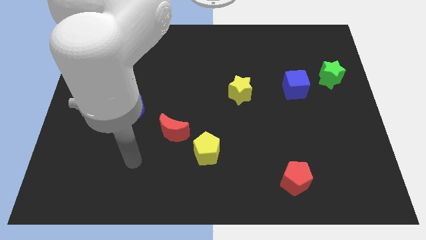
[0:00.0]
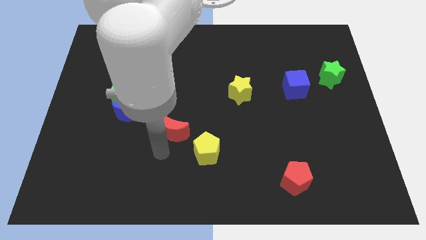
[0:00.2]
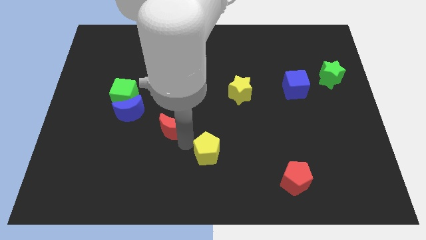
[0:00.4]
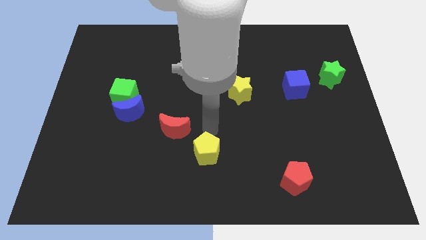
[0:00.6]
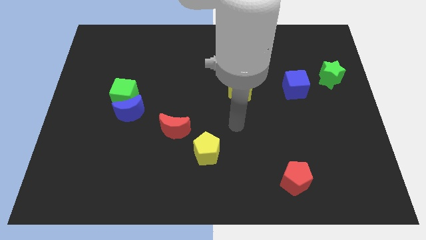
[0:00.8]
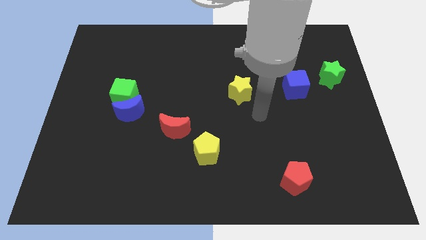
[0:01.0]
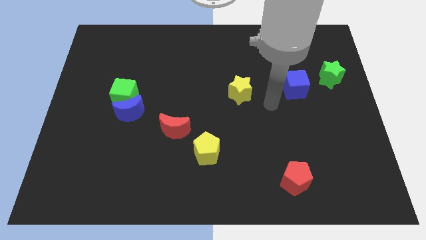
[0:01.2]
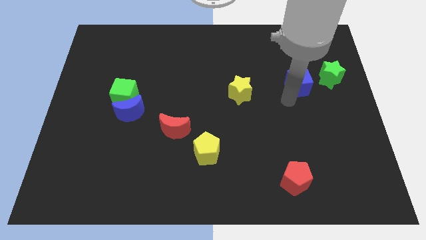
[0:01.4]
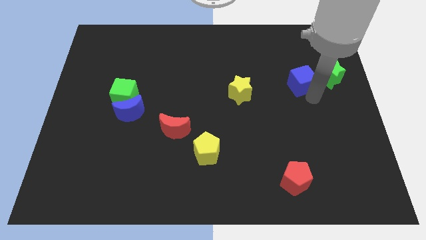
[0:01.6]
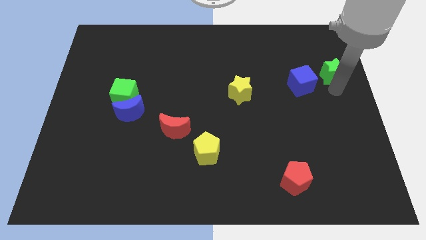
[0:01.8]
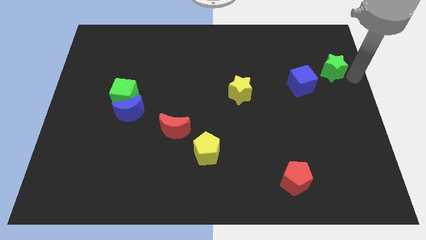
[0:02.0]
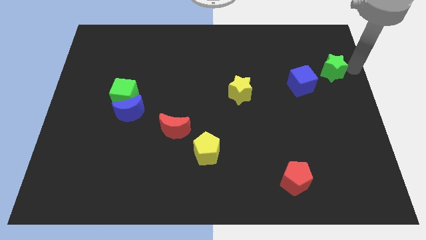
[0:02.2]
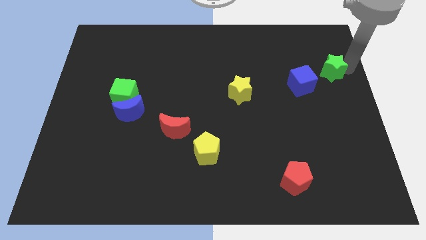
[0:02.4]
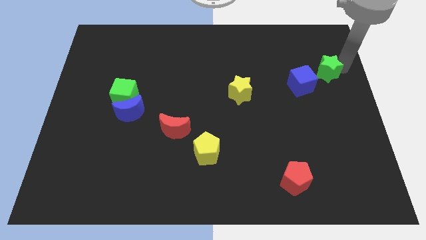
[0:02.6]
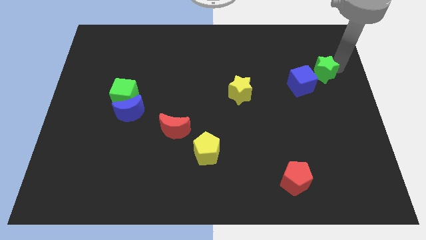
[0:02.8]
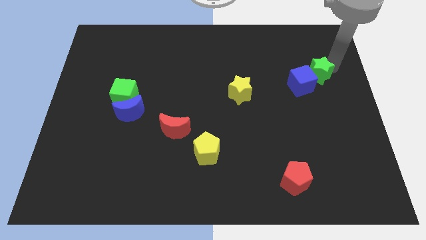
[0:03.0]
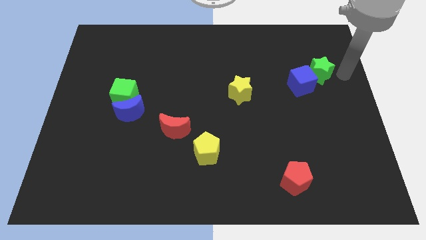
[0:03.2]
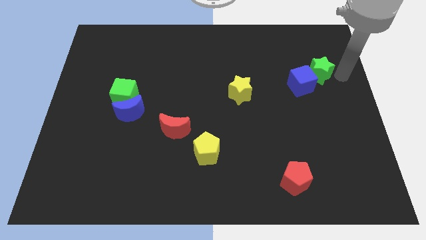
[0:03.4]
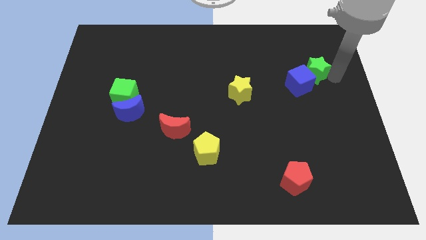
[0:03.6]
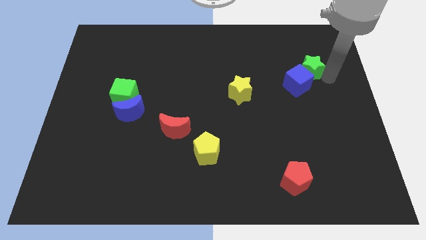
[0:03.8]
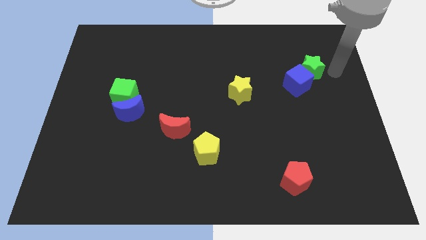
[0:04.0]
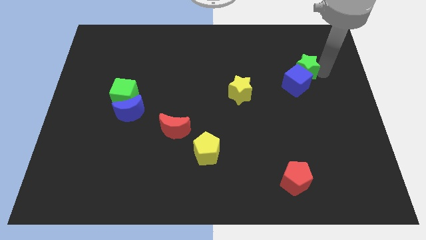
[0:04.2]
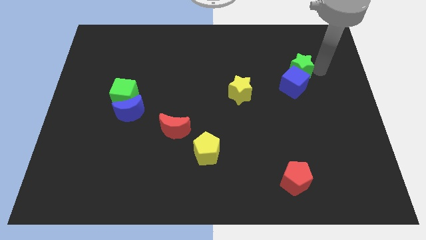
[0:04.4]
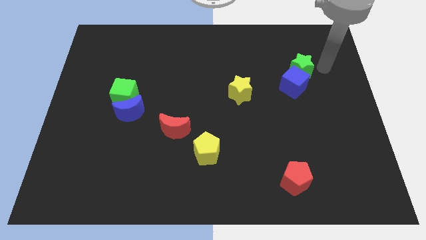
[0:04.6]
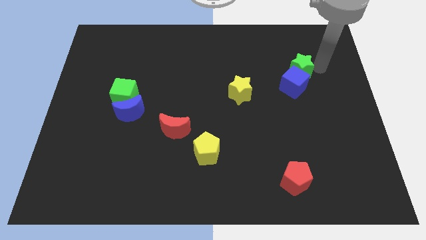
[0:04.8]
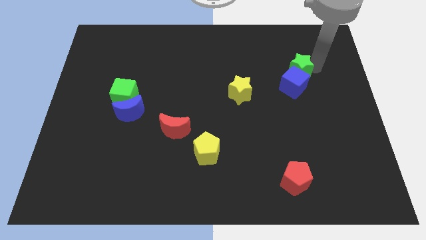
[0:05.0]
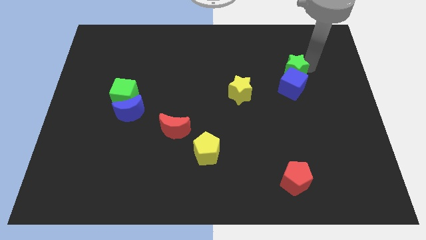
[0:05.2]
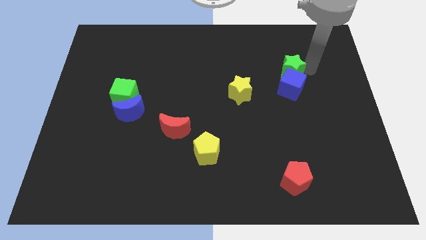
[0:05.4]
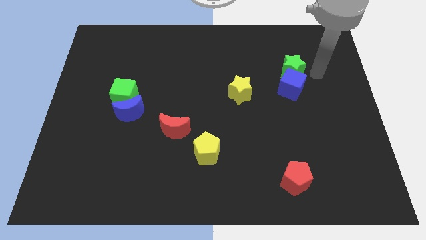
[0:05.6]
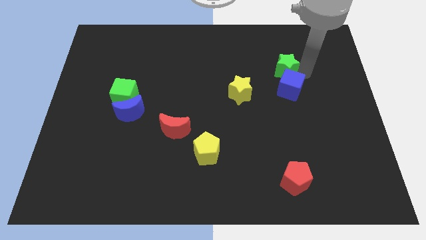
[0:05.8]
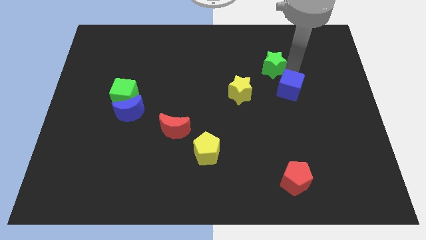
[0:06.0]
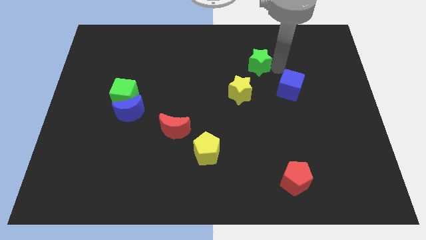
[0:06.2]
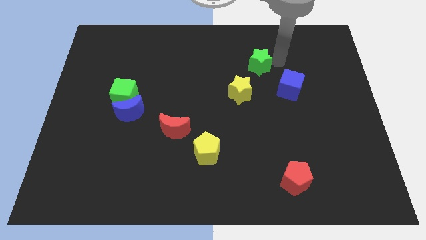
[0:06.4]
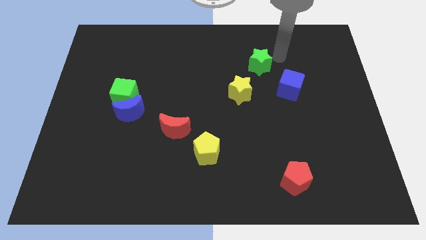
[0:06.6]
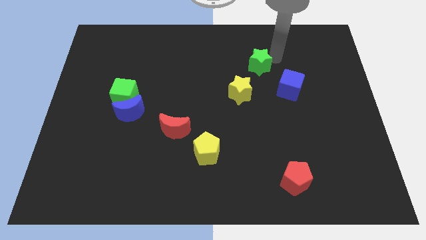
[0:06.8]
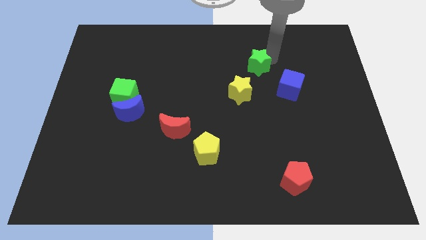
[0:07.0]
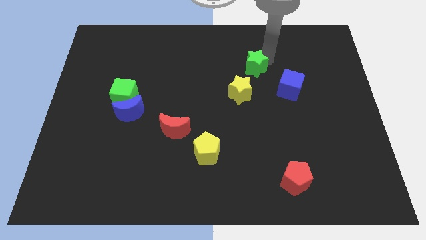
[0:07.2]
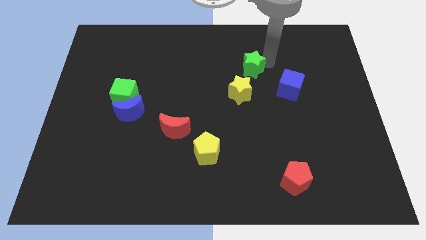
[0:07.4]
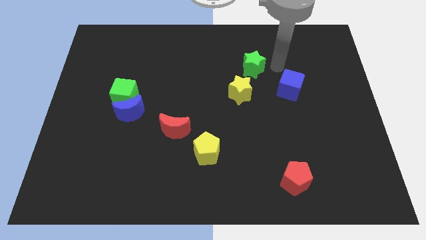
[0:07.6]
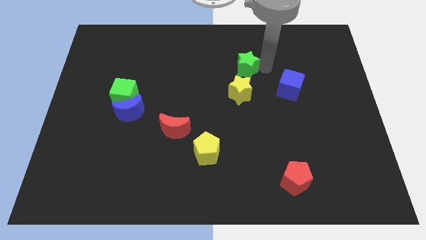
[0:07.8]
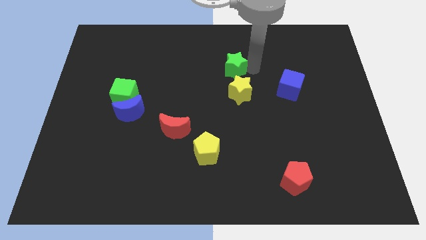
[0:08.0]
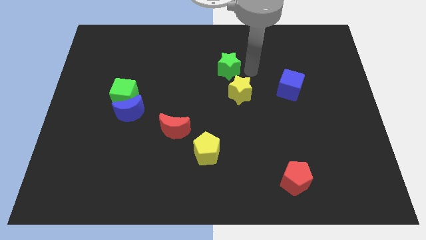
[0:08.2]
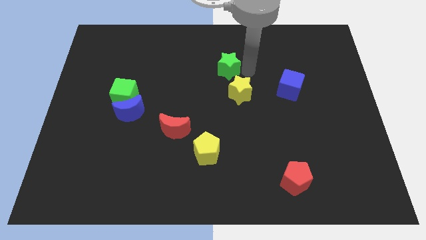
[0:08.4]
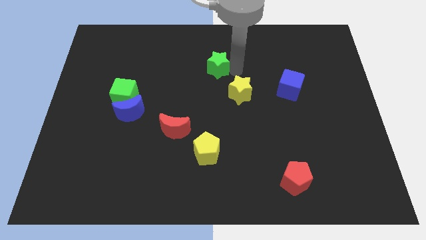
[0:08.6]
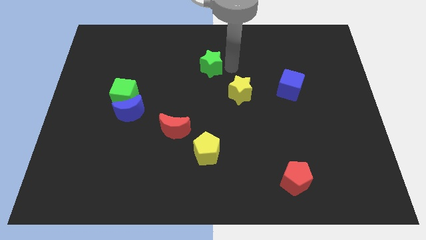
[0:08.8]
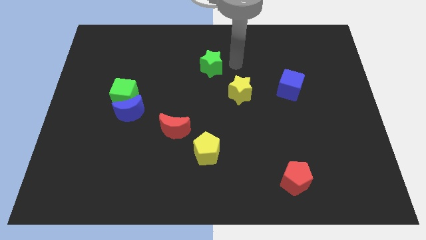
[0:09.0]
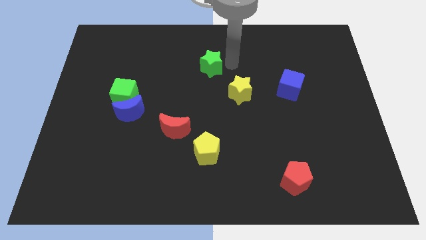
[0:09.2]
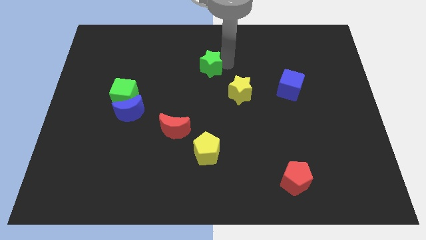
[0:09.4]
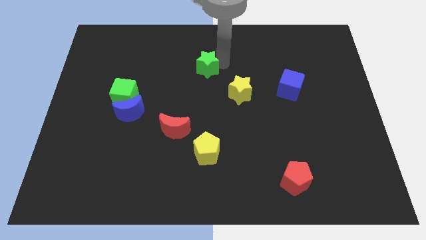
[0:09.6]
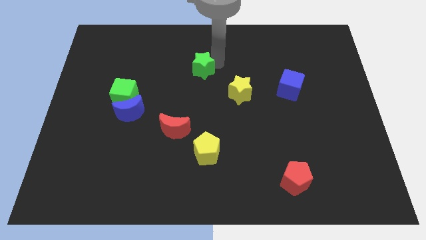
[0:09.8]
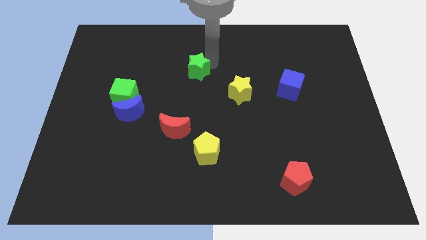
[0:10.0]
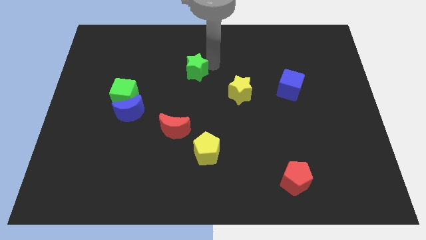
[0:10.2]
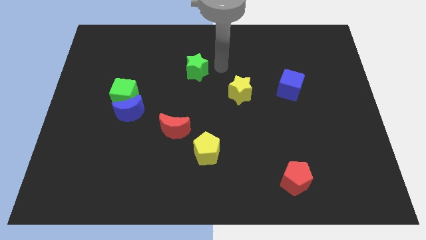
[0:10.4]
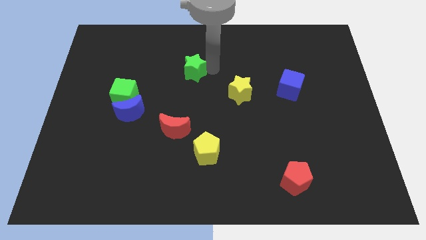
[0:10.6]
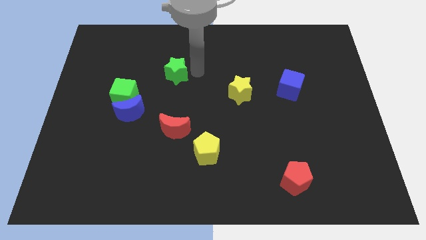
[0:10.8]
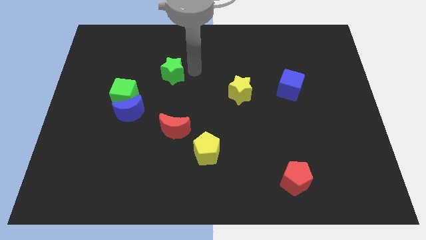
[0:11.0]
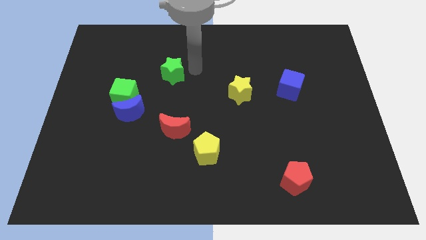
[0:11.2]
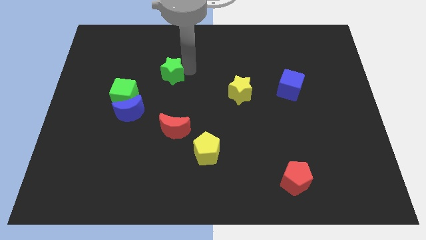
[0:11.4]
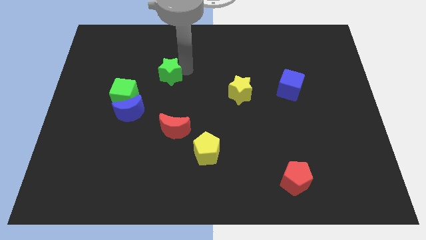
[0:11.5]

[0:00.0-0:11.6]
push the green star to the top right of the green cube

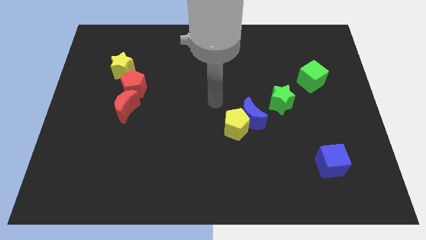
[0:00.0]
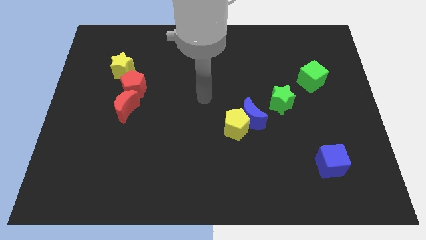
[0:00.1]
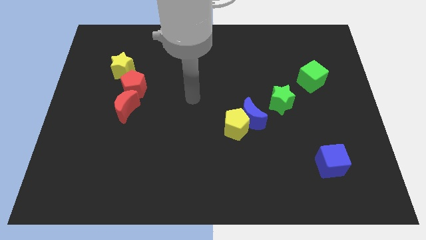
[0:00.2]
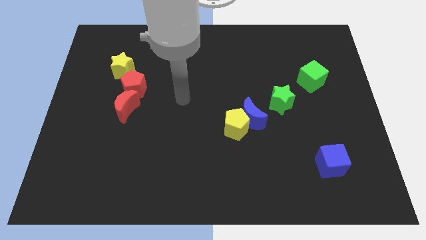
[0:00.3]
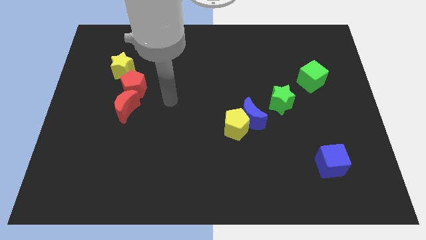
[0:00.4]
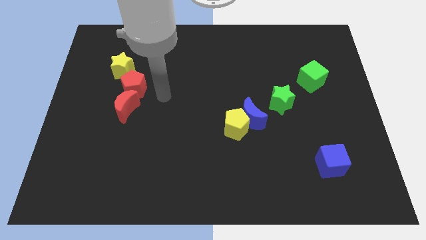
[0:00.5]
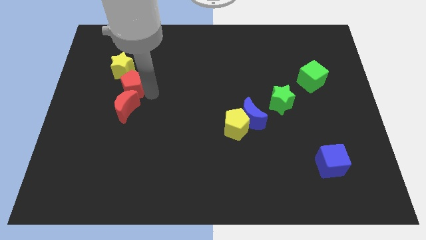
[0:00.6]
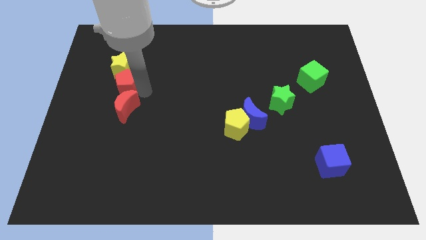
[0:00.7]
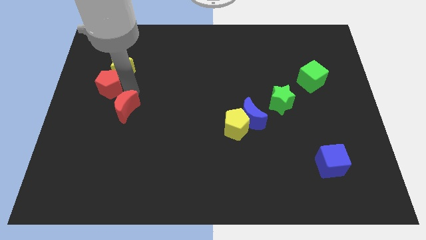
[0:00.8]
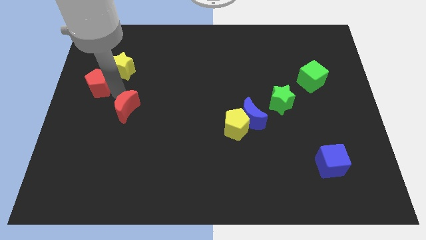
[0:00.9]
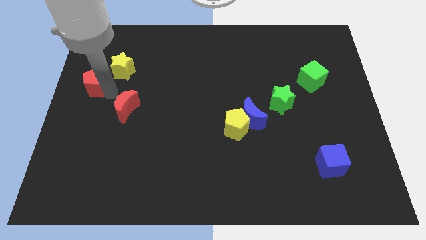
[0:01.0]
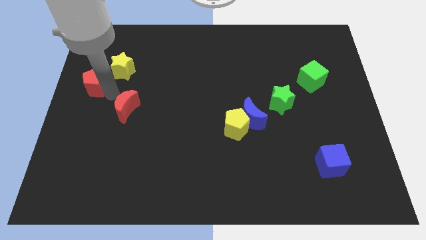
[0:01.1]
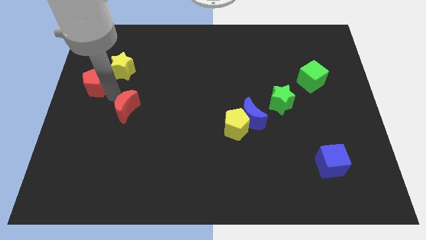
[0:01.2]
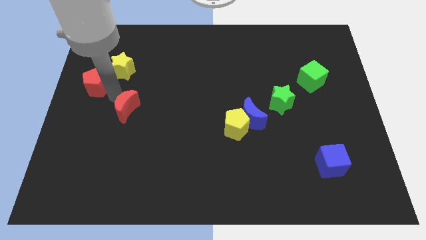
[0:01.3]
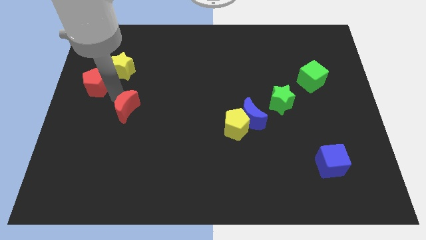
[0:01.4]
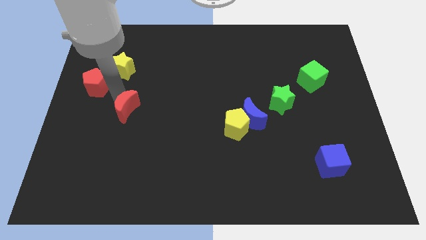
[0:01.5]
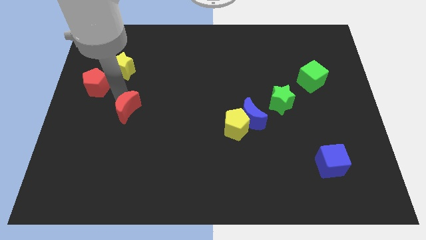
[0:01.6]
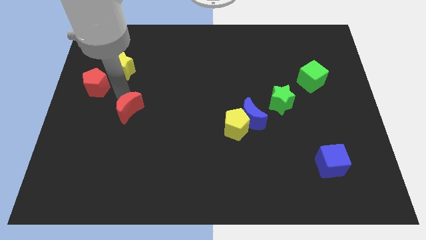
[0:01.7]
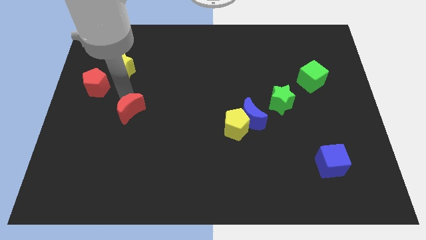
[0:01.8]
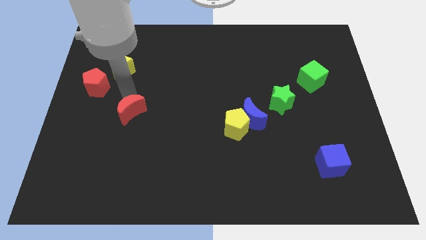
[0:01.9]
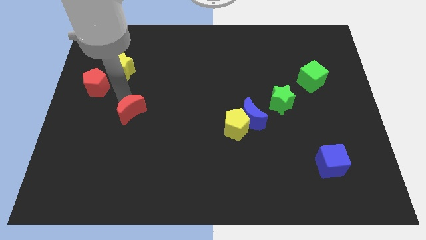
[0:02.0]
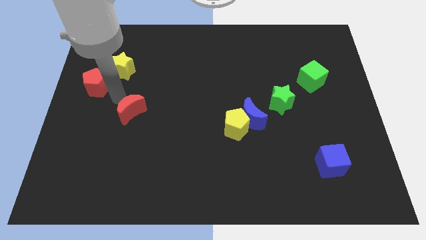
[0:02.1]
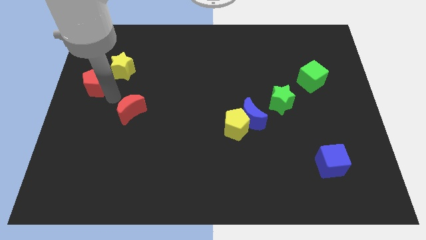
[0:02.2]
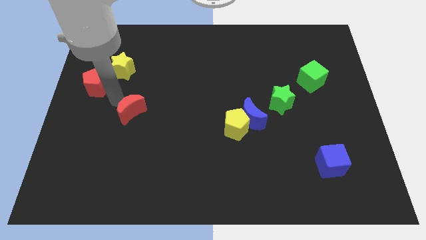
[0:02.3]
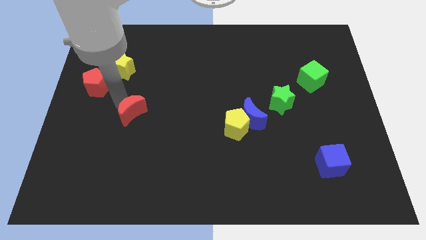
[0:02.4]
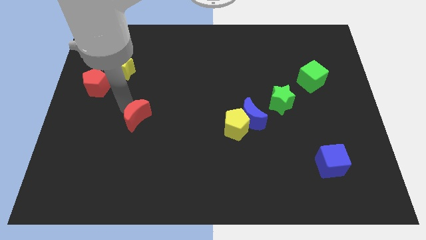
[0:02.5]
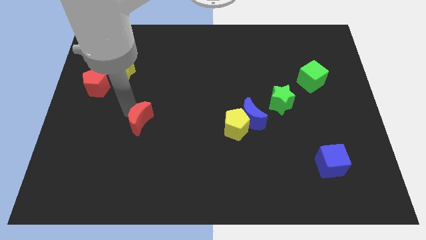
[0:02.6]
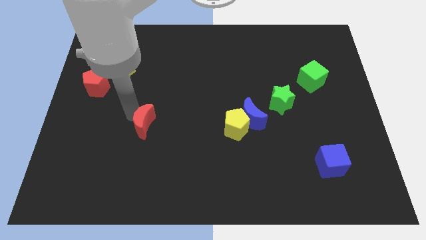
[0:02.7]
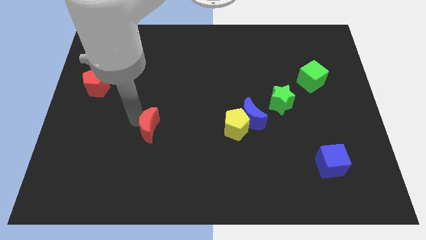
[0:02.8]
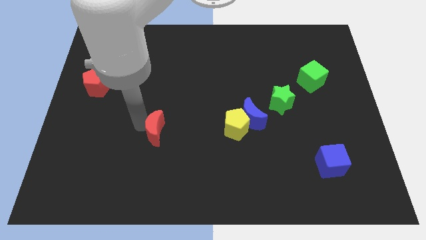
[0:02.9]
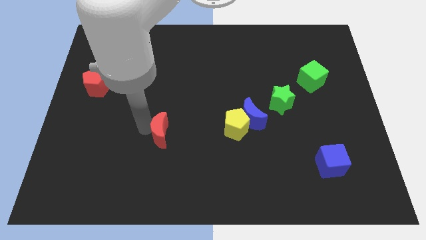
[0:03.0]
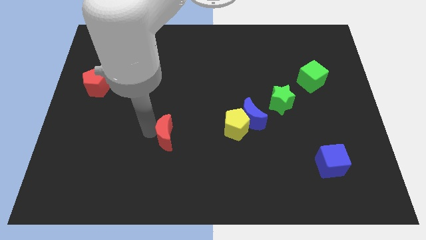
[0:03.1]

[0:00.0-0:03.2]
move the red moon just left of the yellow pentagon
